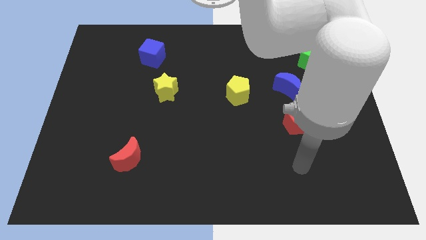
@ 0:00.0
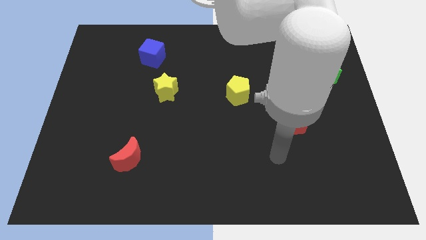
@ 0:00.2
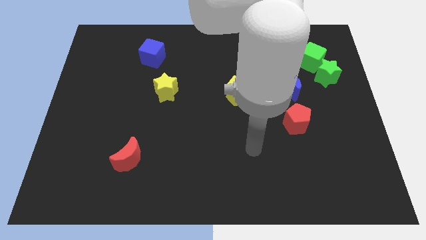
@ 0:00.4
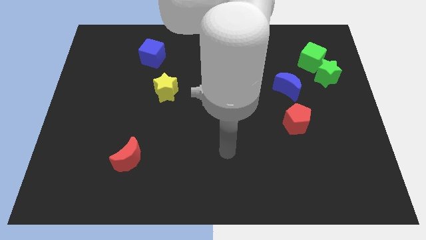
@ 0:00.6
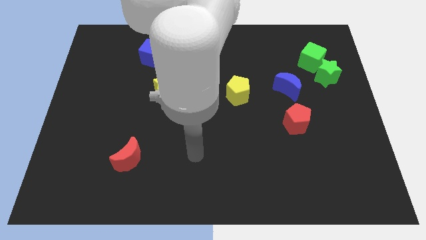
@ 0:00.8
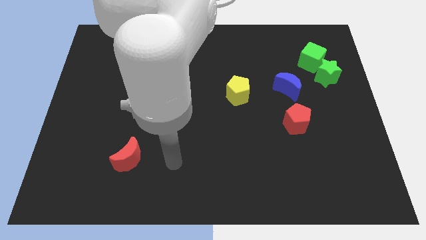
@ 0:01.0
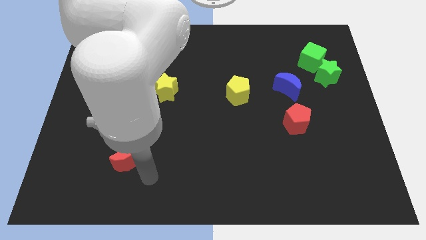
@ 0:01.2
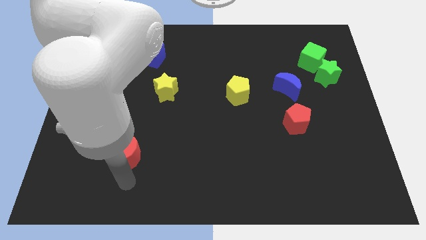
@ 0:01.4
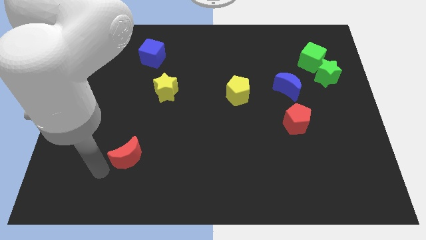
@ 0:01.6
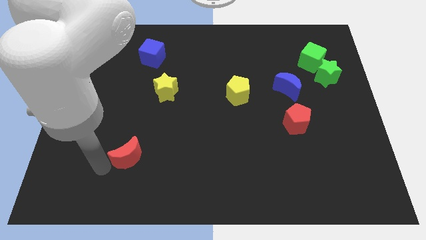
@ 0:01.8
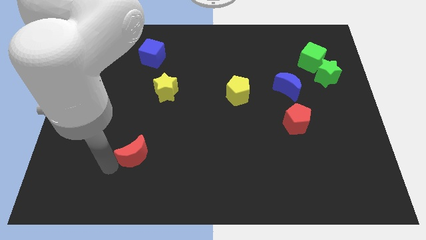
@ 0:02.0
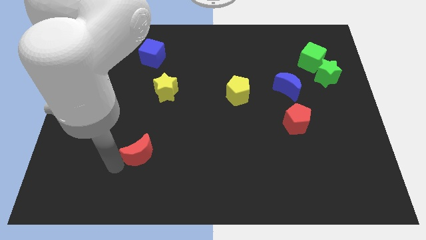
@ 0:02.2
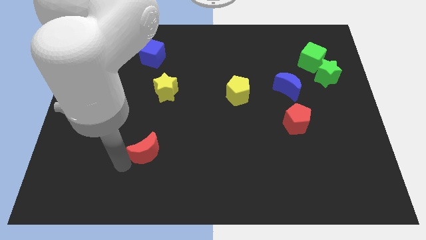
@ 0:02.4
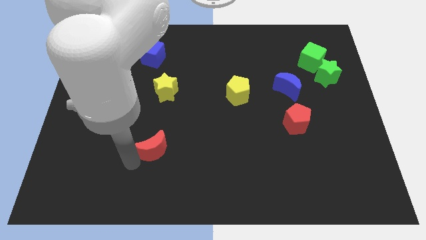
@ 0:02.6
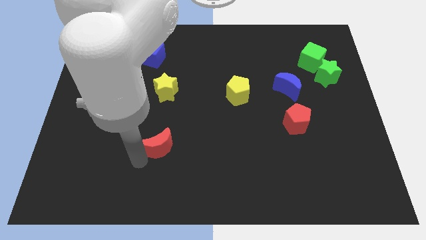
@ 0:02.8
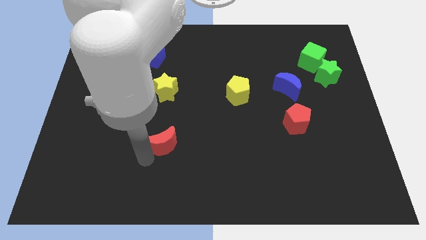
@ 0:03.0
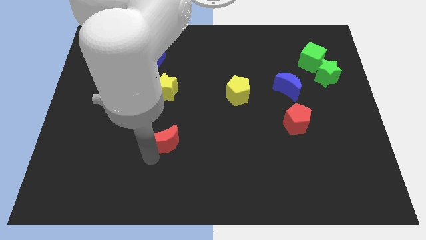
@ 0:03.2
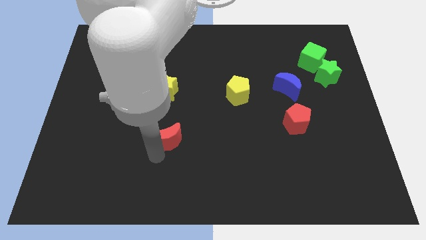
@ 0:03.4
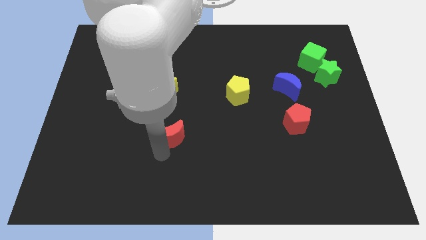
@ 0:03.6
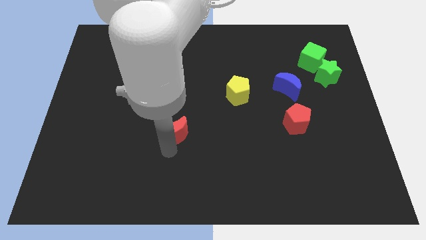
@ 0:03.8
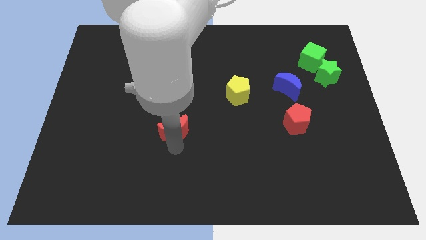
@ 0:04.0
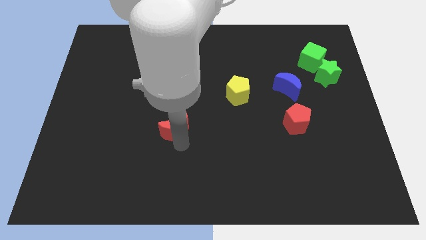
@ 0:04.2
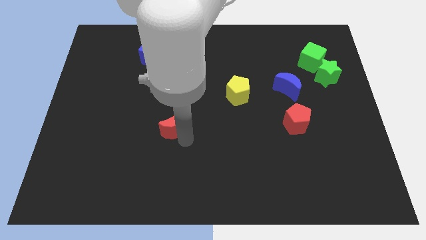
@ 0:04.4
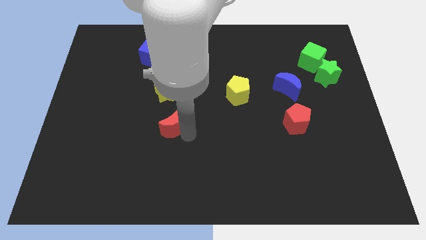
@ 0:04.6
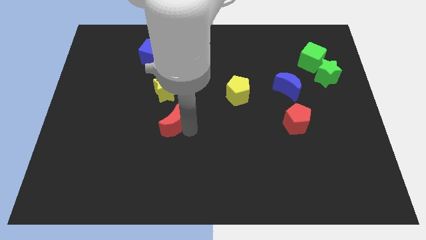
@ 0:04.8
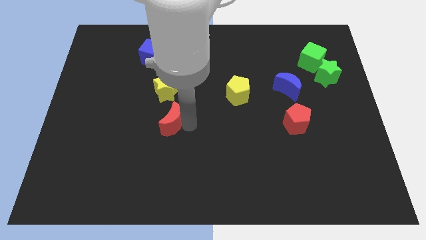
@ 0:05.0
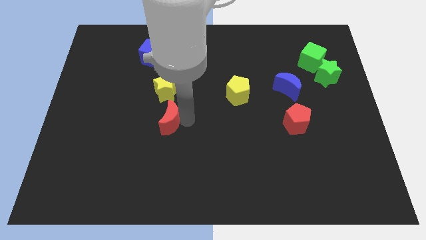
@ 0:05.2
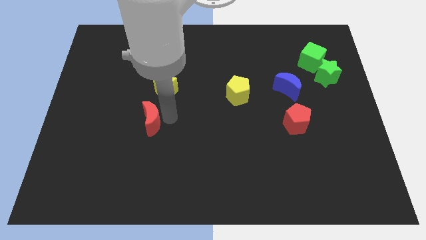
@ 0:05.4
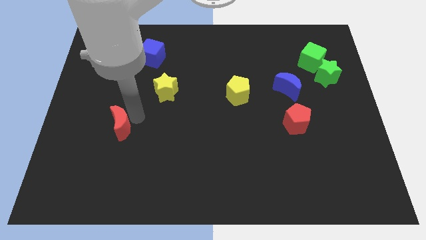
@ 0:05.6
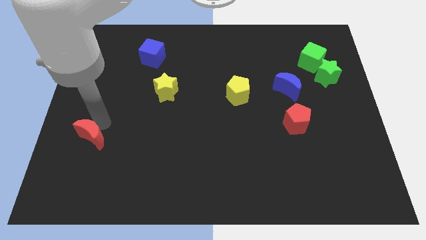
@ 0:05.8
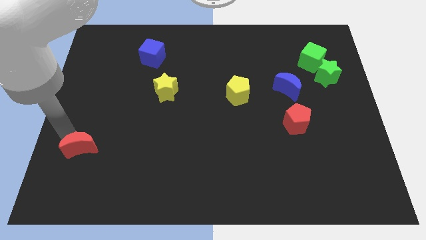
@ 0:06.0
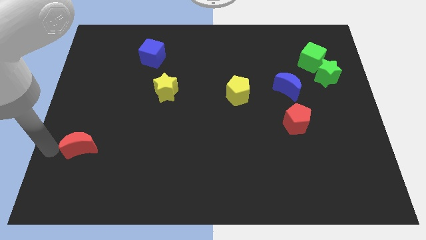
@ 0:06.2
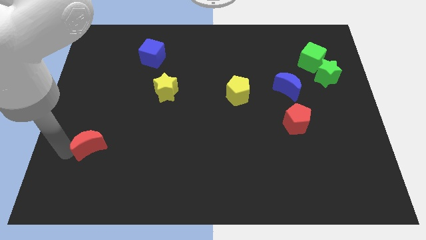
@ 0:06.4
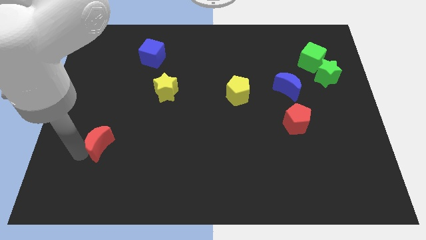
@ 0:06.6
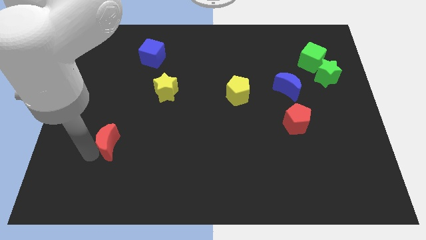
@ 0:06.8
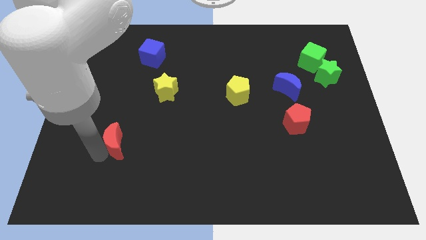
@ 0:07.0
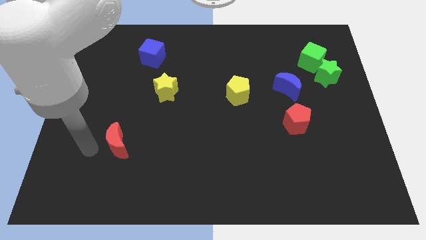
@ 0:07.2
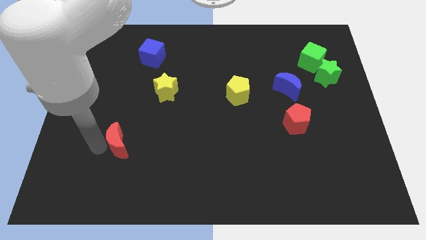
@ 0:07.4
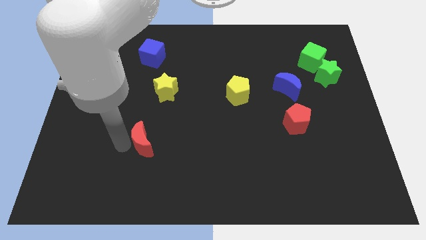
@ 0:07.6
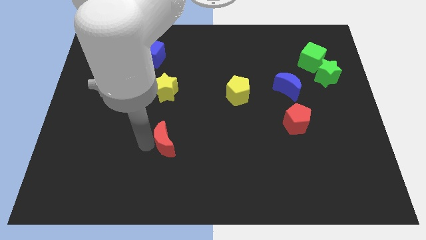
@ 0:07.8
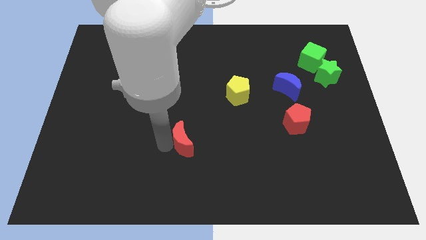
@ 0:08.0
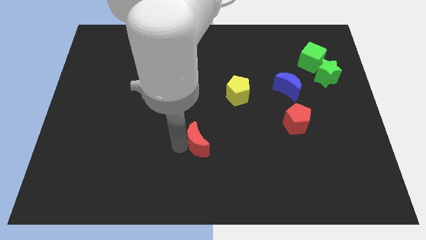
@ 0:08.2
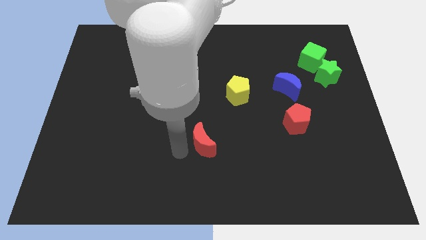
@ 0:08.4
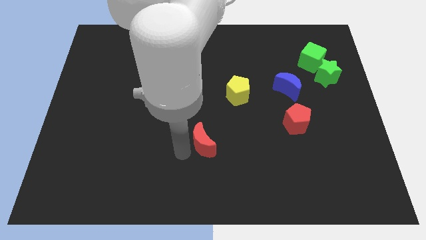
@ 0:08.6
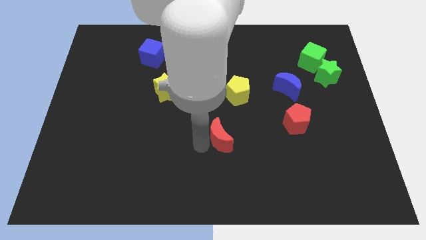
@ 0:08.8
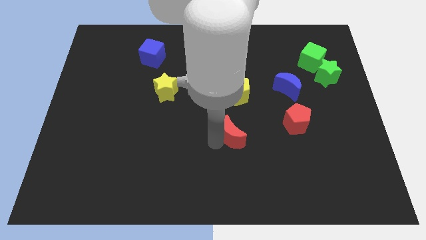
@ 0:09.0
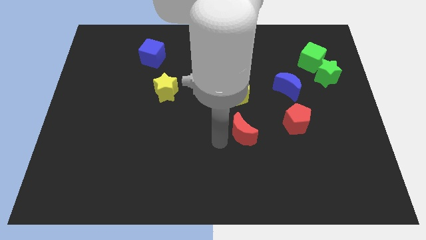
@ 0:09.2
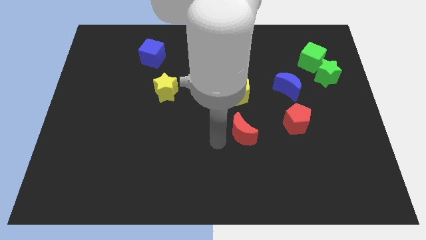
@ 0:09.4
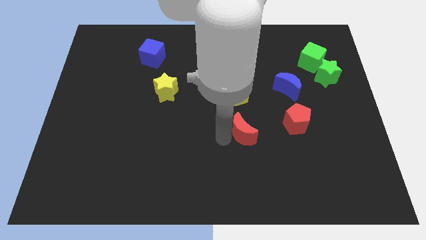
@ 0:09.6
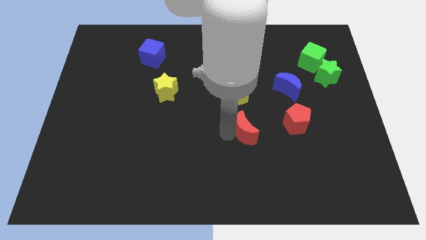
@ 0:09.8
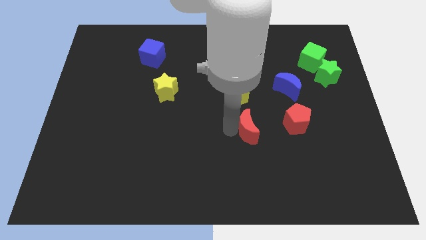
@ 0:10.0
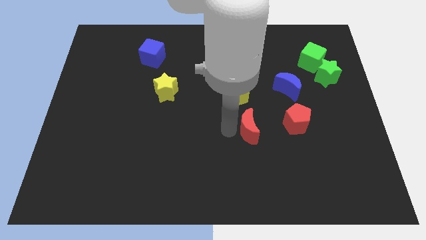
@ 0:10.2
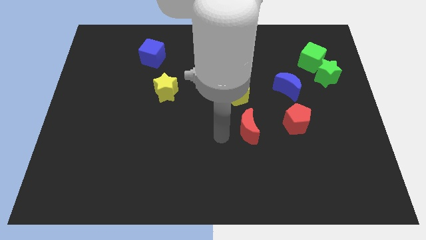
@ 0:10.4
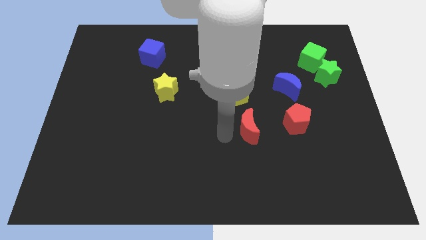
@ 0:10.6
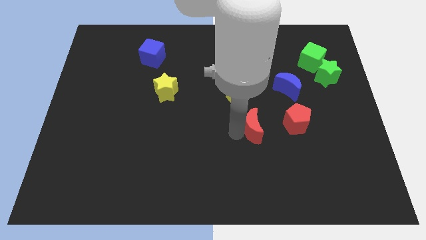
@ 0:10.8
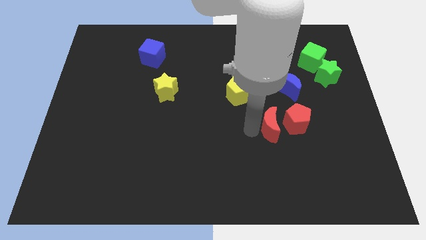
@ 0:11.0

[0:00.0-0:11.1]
push the red moon next to the red pentagon

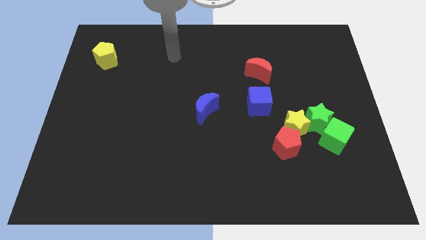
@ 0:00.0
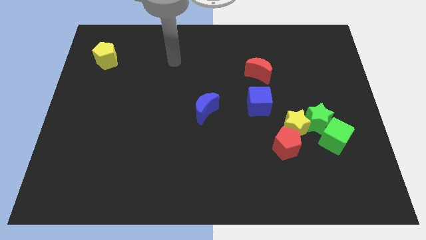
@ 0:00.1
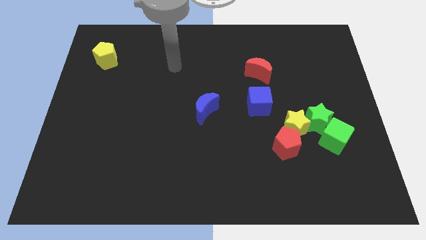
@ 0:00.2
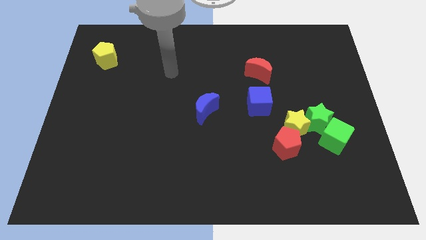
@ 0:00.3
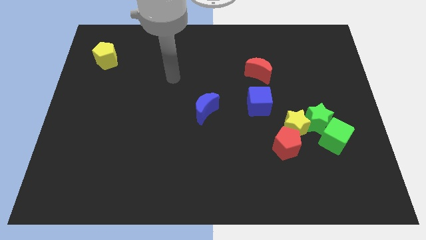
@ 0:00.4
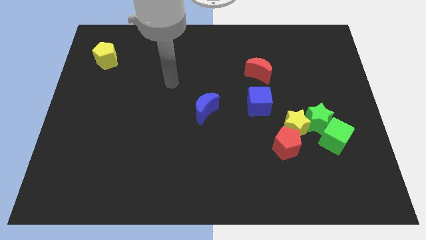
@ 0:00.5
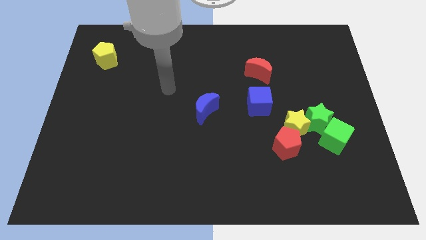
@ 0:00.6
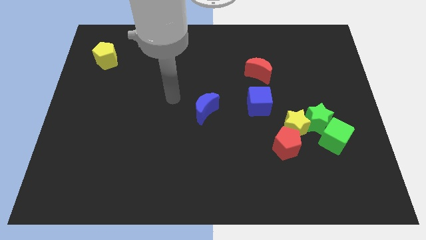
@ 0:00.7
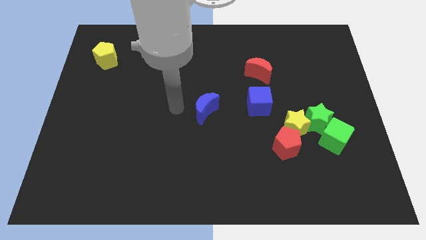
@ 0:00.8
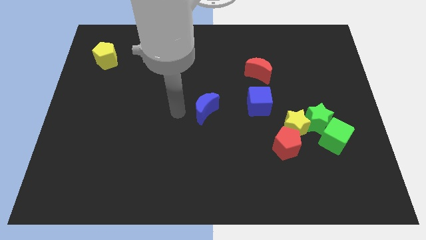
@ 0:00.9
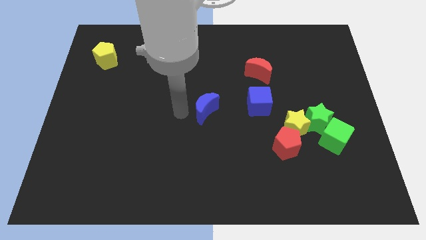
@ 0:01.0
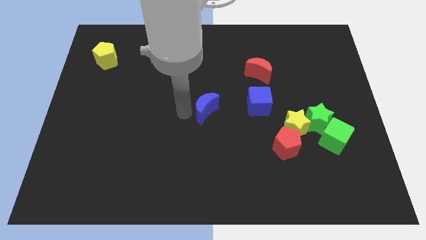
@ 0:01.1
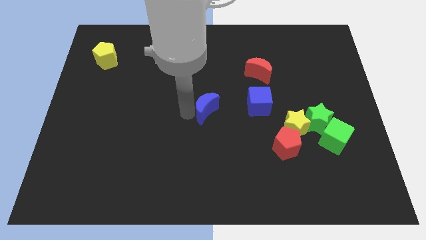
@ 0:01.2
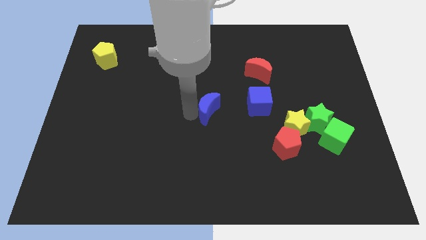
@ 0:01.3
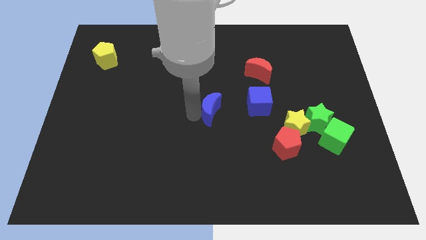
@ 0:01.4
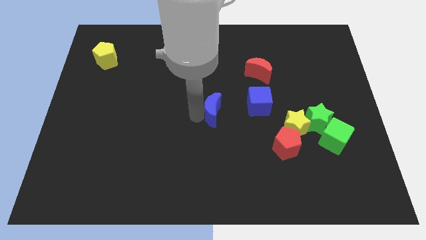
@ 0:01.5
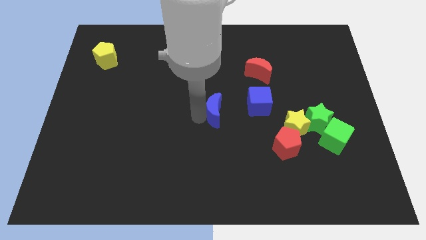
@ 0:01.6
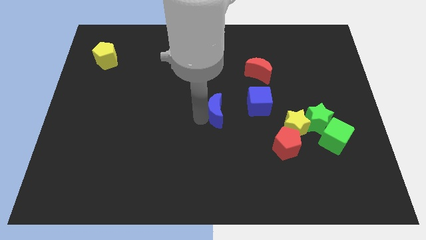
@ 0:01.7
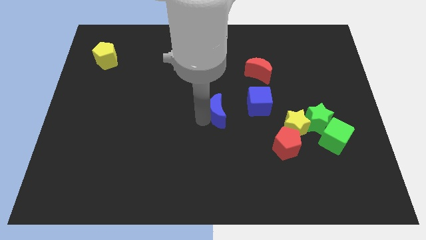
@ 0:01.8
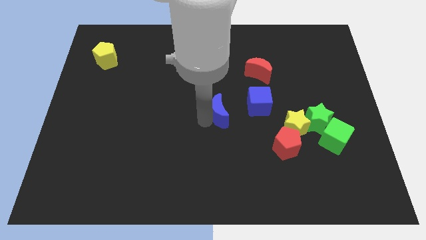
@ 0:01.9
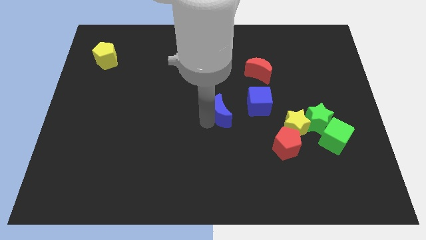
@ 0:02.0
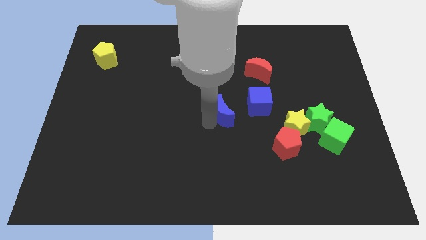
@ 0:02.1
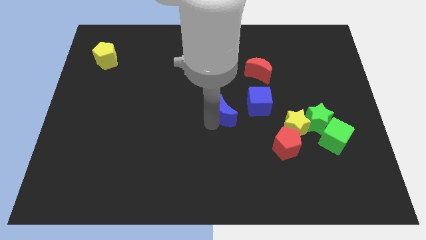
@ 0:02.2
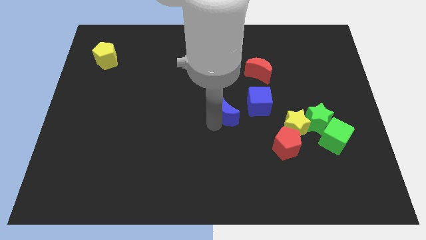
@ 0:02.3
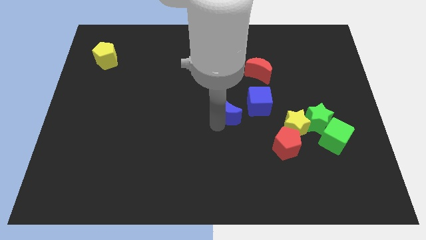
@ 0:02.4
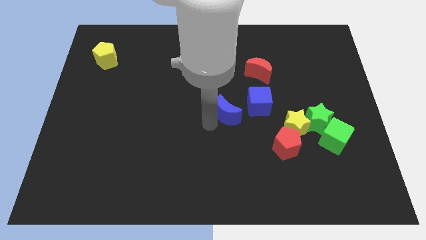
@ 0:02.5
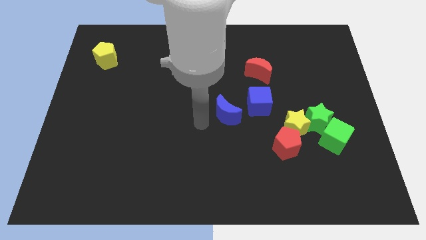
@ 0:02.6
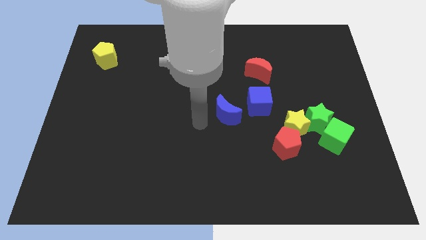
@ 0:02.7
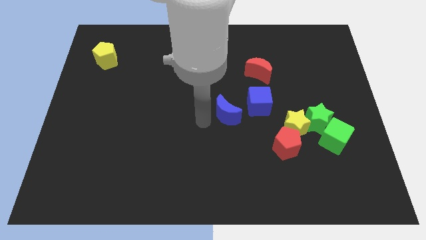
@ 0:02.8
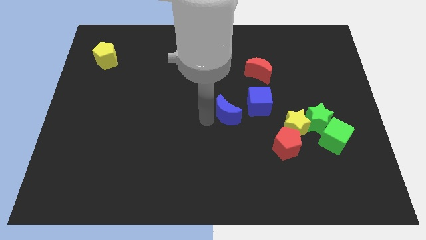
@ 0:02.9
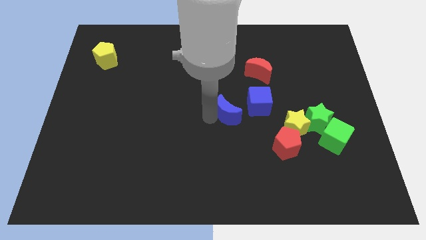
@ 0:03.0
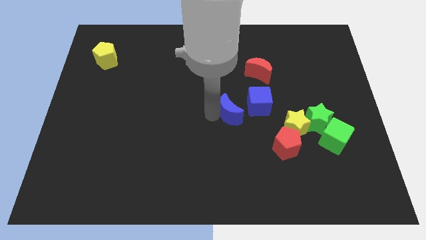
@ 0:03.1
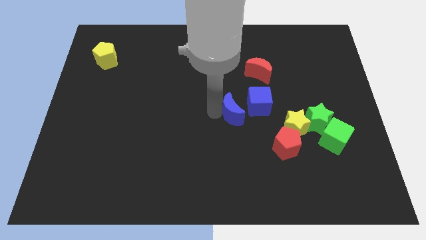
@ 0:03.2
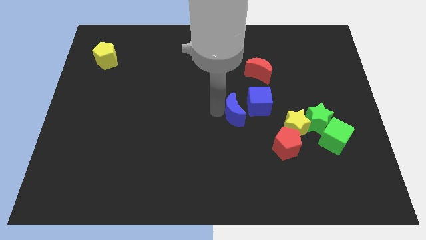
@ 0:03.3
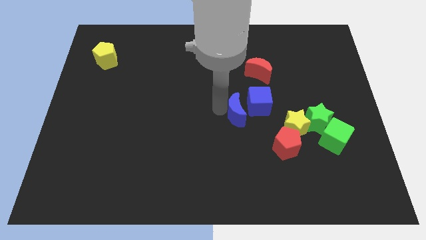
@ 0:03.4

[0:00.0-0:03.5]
push the blue moon towards the blue cube
